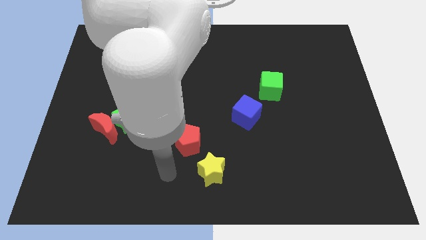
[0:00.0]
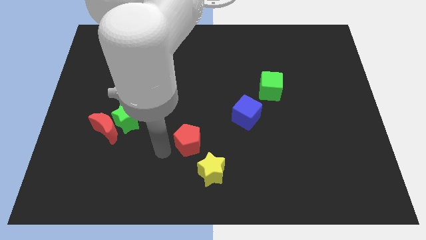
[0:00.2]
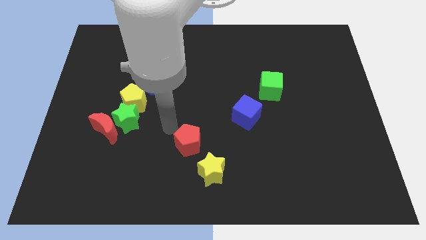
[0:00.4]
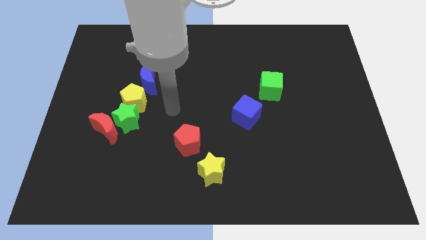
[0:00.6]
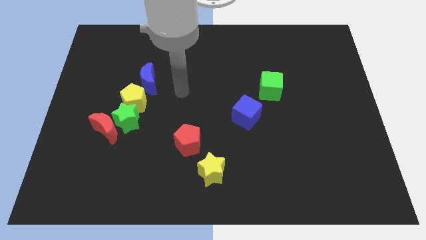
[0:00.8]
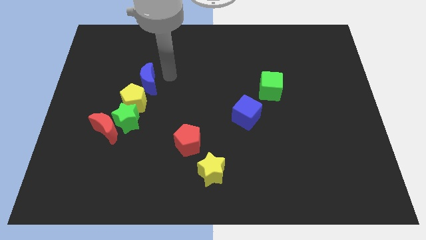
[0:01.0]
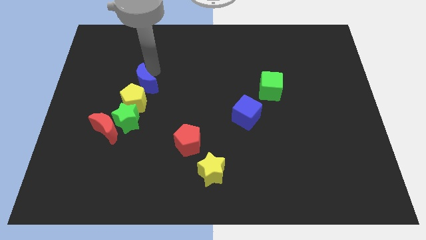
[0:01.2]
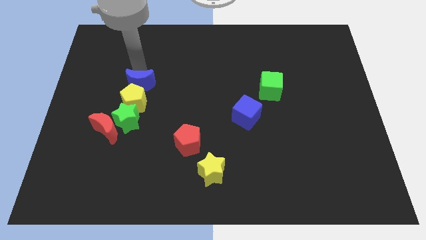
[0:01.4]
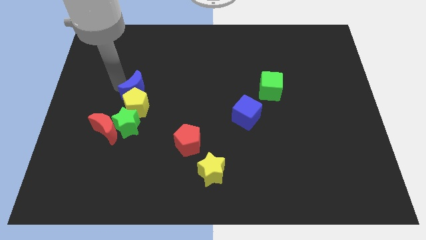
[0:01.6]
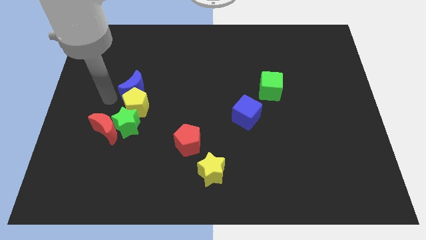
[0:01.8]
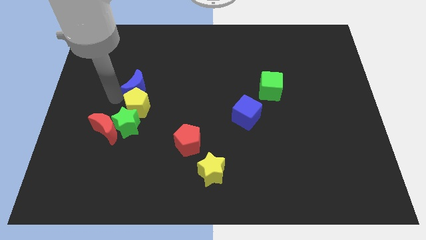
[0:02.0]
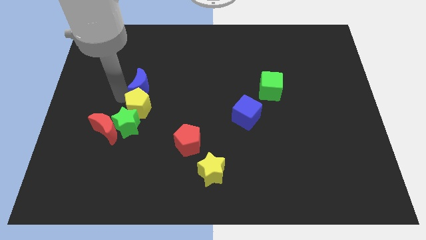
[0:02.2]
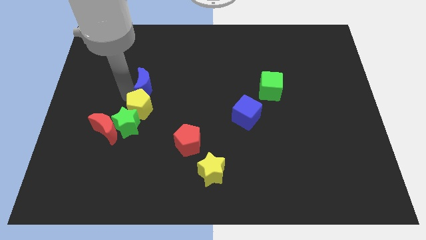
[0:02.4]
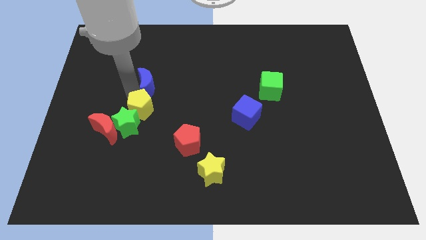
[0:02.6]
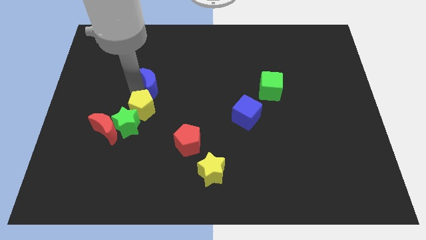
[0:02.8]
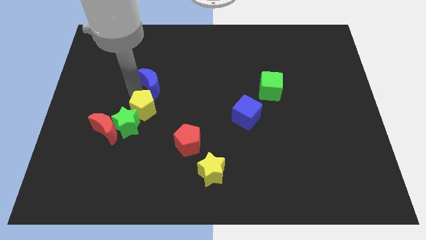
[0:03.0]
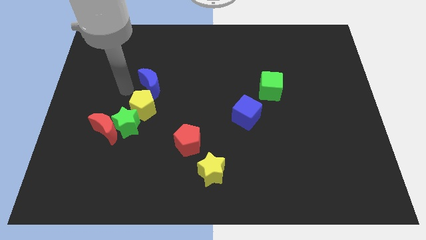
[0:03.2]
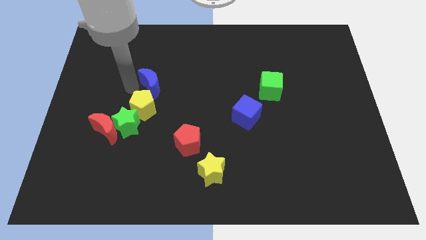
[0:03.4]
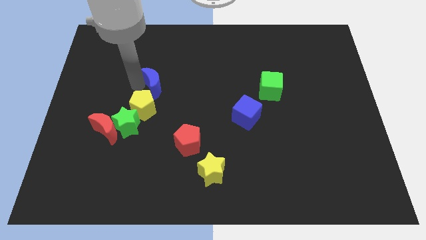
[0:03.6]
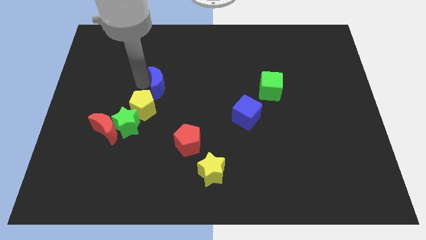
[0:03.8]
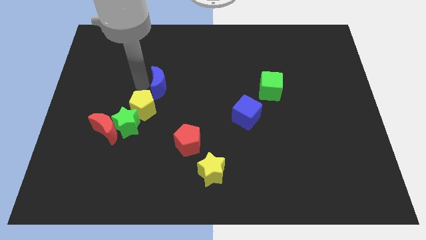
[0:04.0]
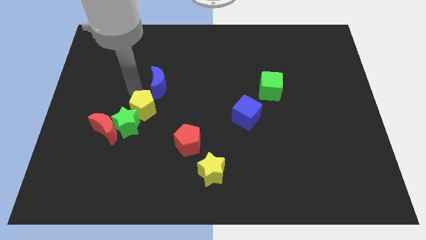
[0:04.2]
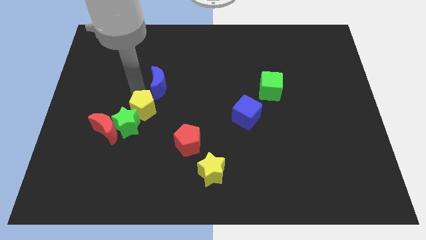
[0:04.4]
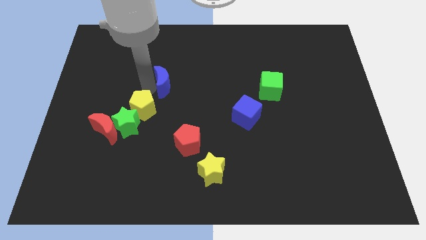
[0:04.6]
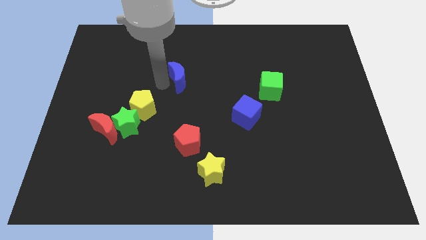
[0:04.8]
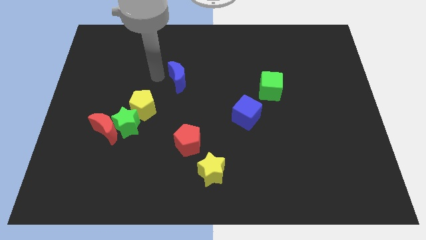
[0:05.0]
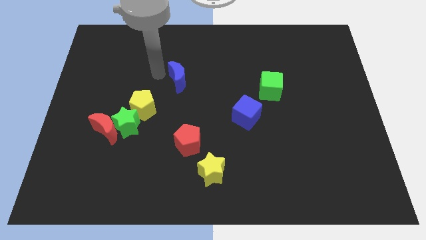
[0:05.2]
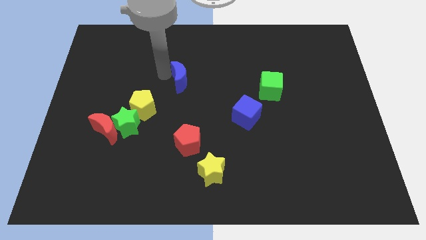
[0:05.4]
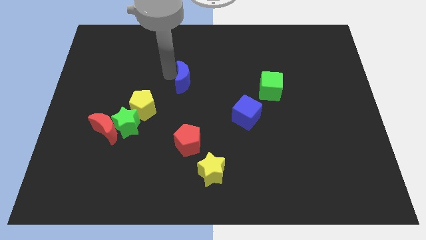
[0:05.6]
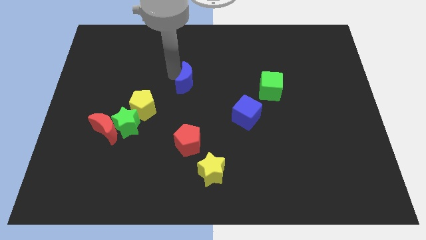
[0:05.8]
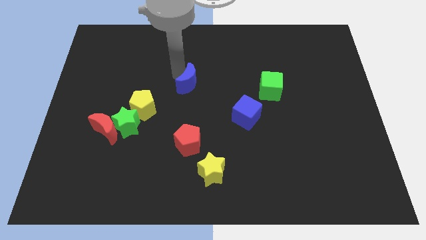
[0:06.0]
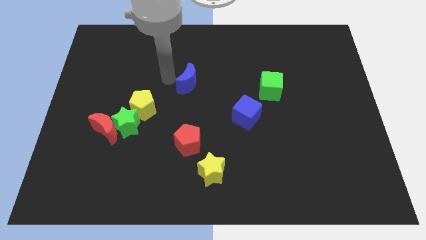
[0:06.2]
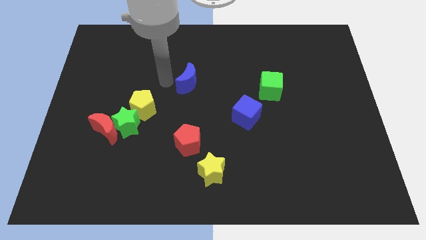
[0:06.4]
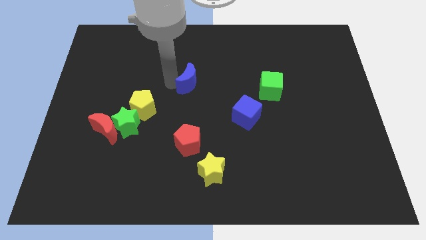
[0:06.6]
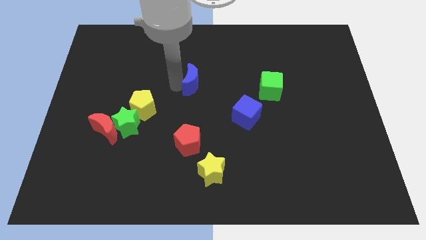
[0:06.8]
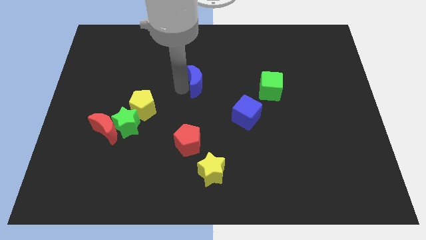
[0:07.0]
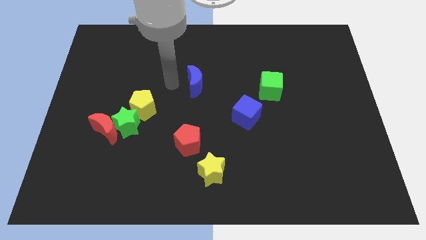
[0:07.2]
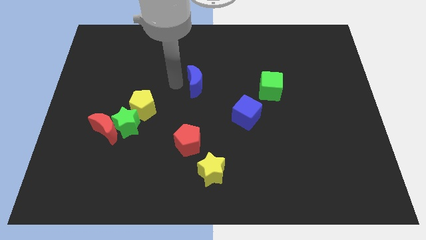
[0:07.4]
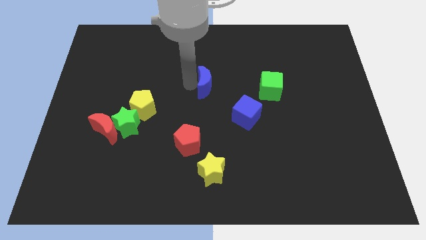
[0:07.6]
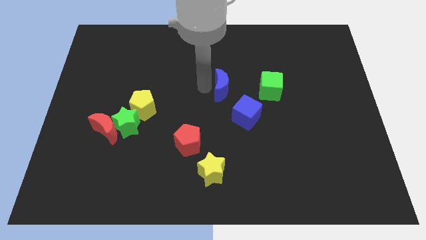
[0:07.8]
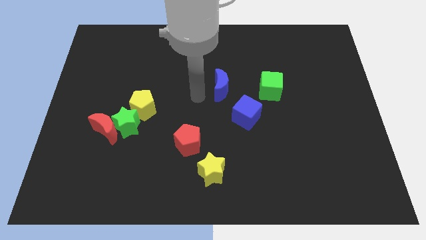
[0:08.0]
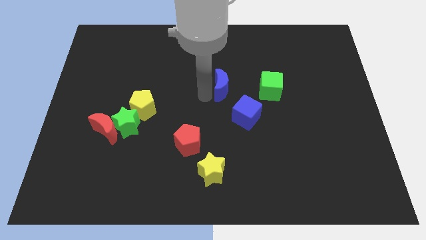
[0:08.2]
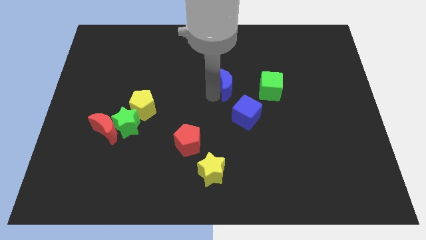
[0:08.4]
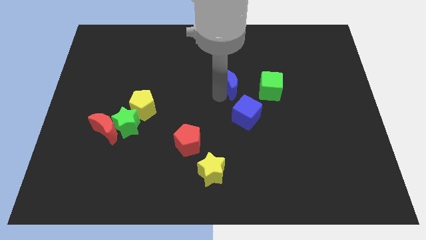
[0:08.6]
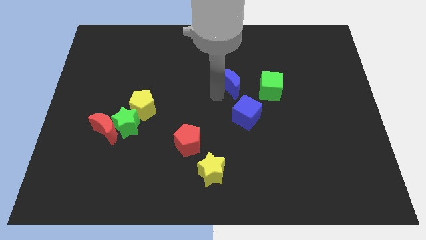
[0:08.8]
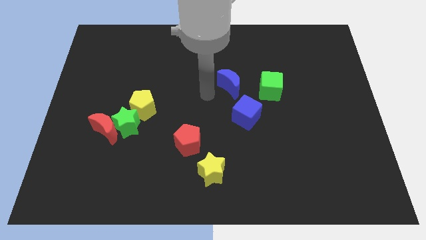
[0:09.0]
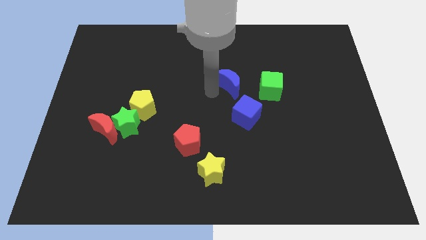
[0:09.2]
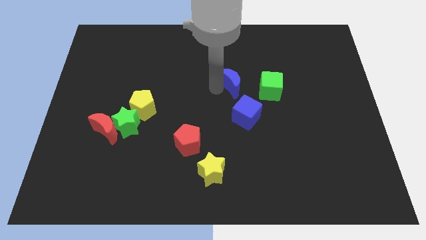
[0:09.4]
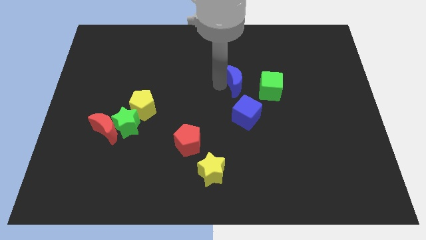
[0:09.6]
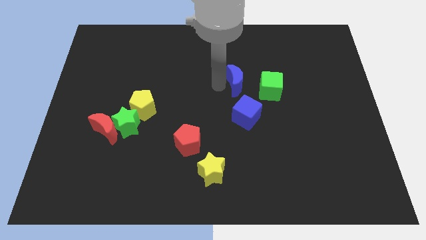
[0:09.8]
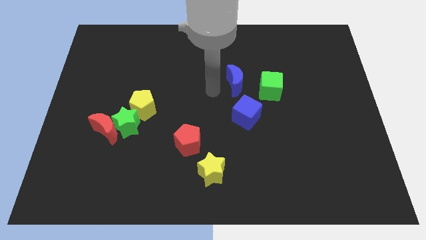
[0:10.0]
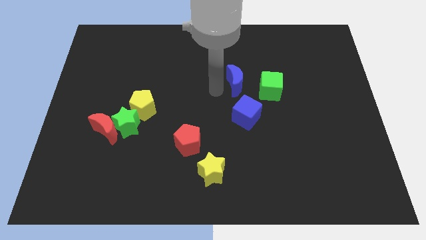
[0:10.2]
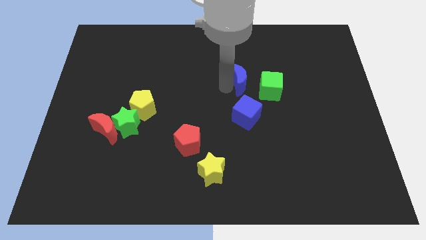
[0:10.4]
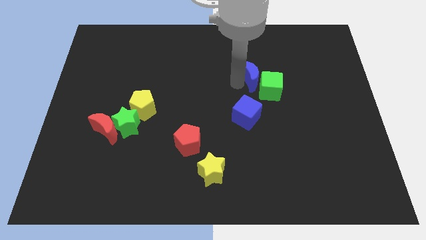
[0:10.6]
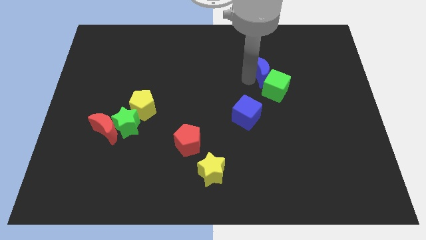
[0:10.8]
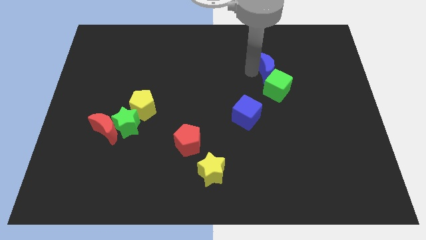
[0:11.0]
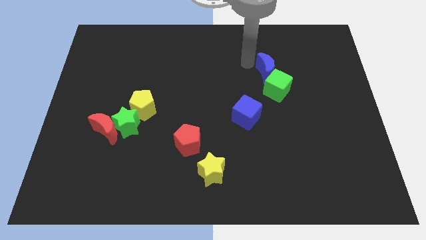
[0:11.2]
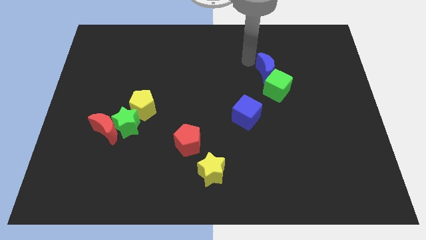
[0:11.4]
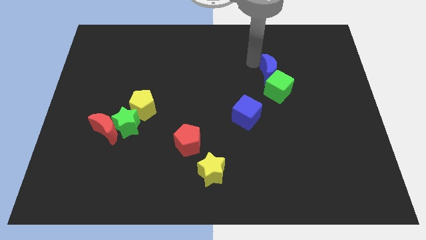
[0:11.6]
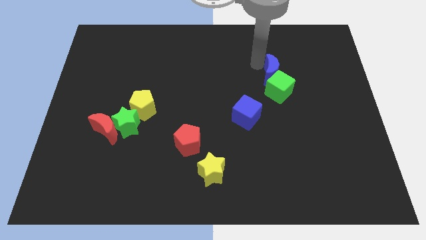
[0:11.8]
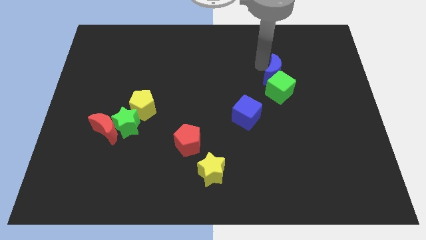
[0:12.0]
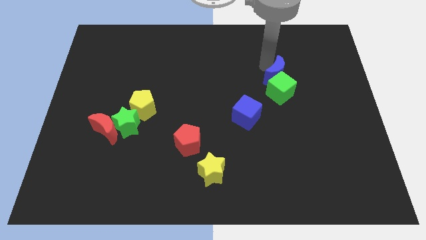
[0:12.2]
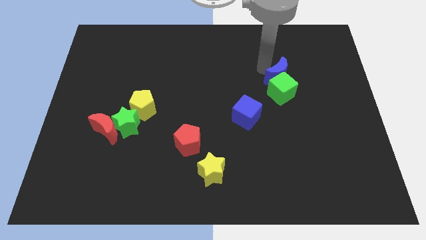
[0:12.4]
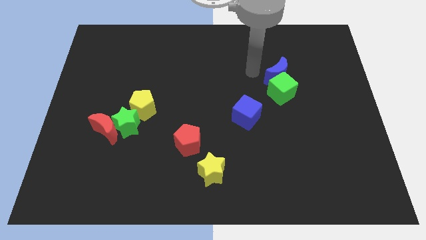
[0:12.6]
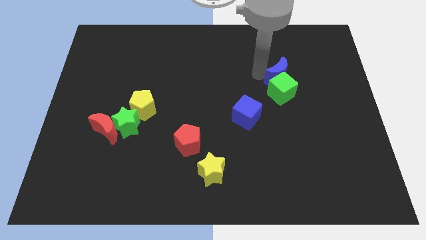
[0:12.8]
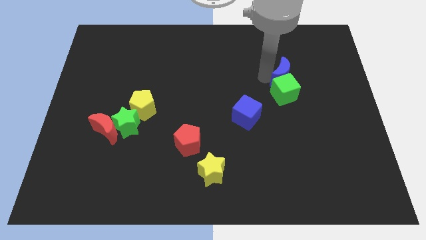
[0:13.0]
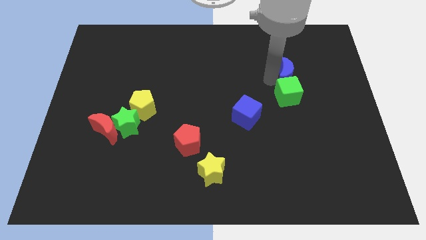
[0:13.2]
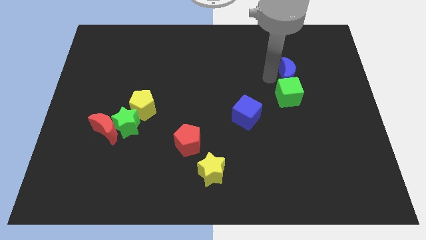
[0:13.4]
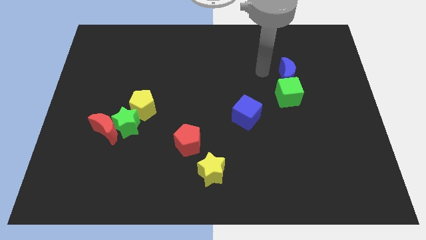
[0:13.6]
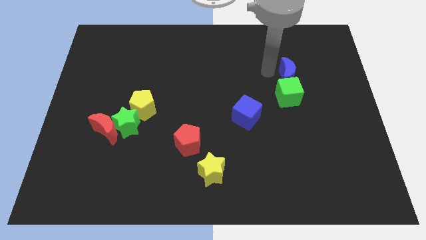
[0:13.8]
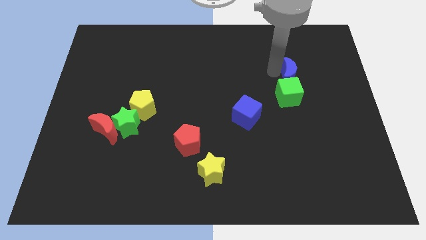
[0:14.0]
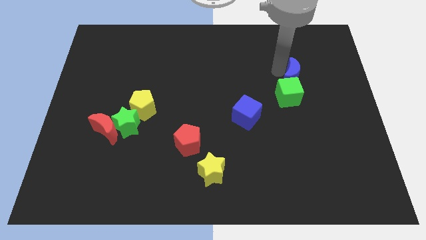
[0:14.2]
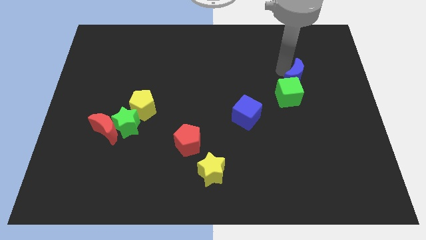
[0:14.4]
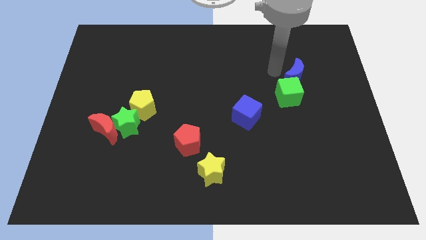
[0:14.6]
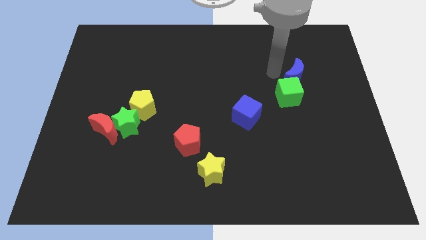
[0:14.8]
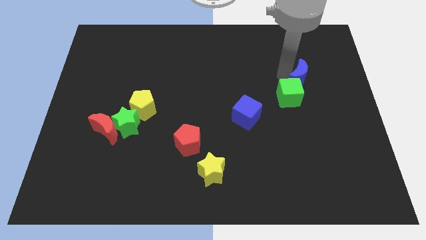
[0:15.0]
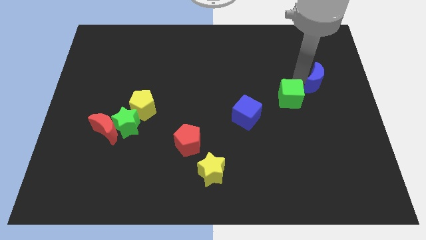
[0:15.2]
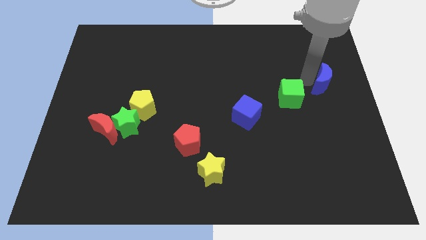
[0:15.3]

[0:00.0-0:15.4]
slide the blue moon to the center right
